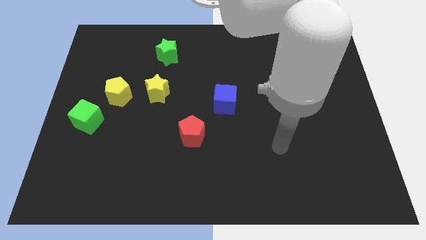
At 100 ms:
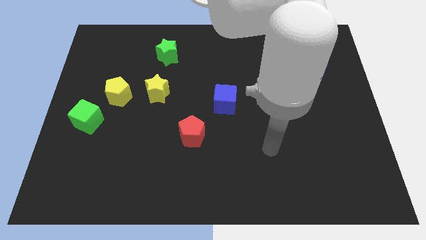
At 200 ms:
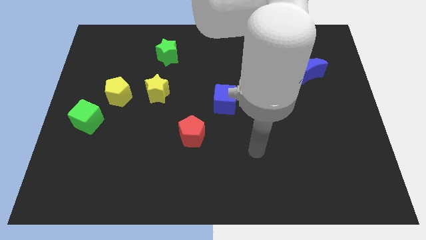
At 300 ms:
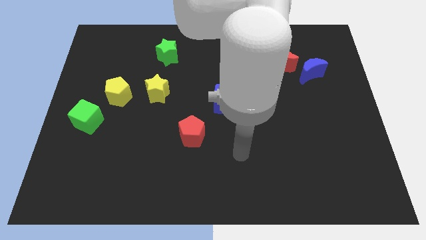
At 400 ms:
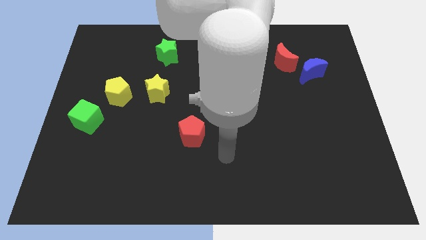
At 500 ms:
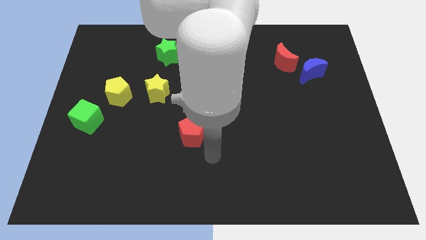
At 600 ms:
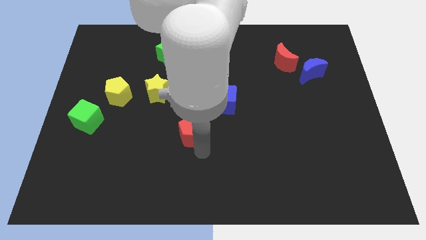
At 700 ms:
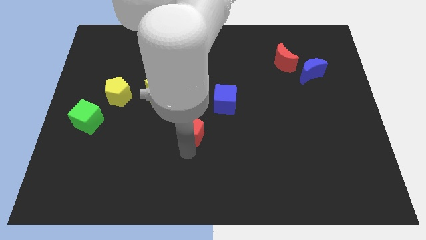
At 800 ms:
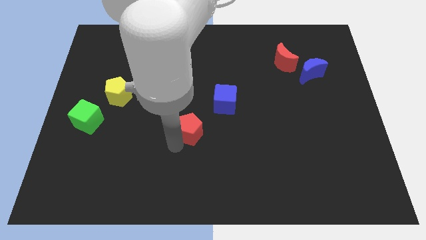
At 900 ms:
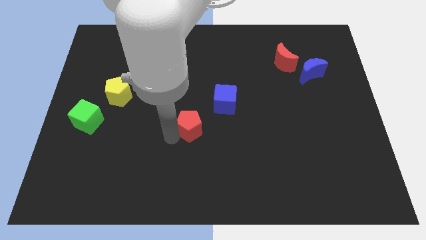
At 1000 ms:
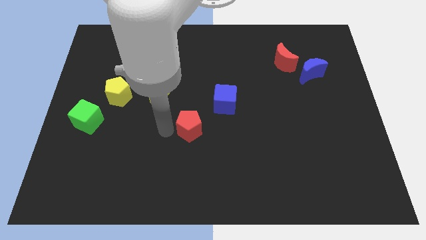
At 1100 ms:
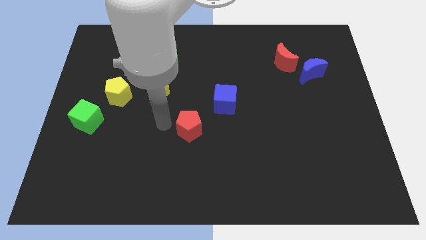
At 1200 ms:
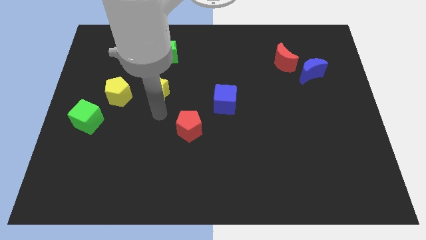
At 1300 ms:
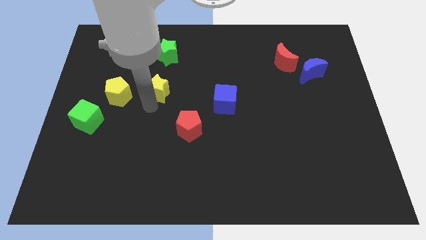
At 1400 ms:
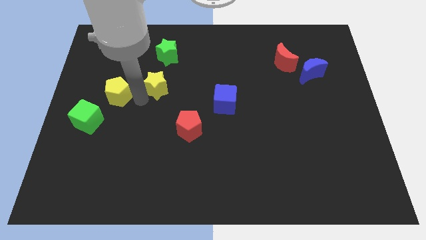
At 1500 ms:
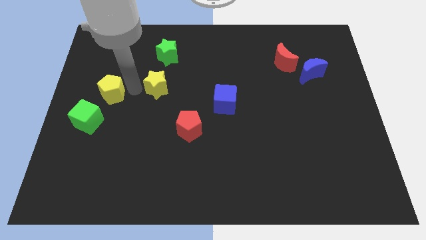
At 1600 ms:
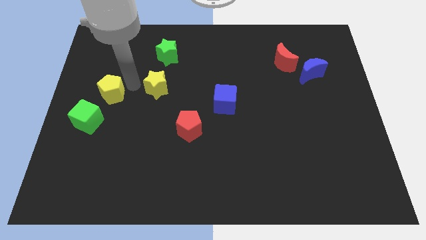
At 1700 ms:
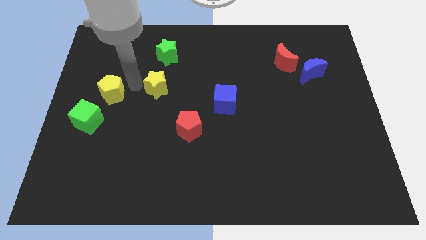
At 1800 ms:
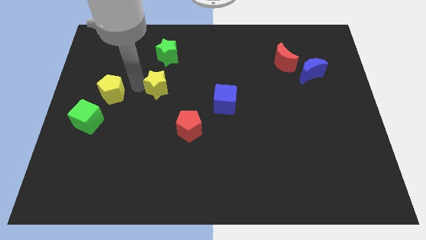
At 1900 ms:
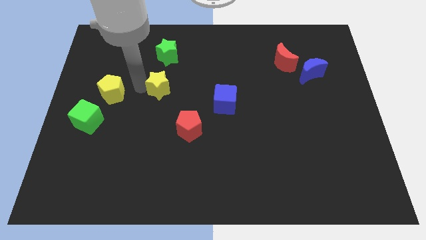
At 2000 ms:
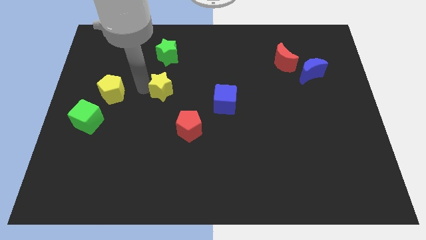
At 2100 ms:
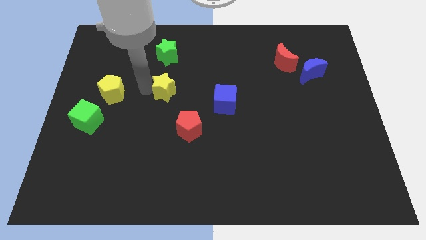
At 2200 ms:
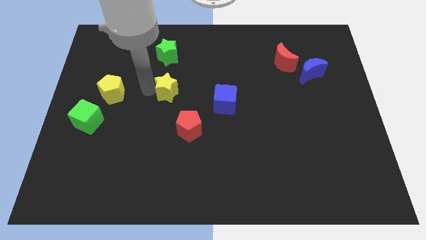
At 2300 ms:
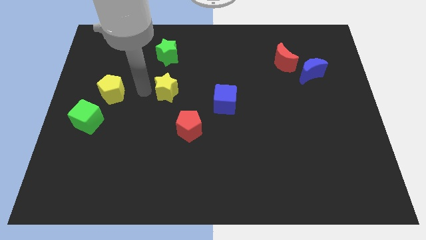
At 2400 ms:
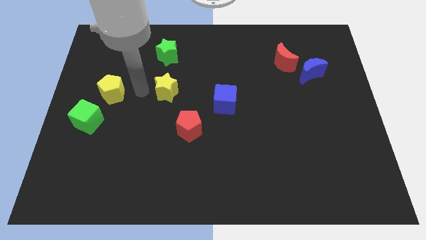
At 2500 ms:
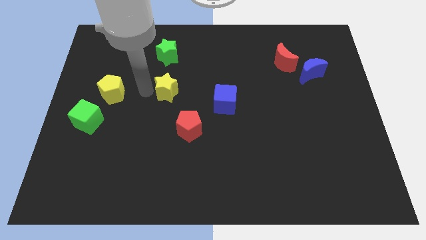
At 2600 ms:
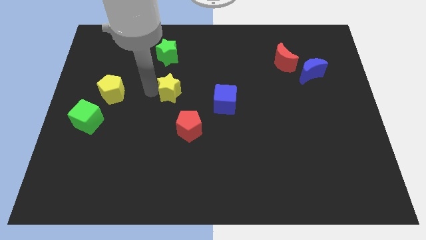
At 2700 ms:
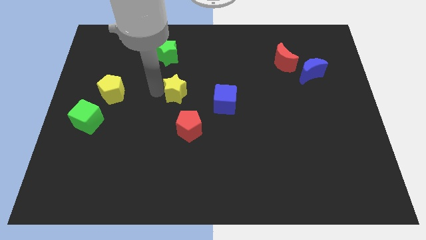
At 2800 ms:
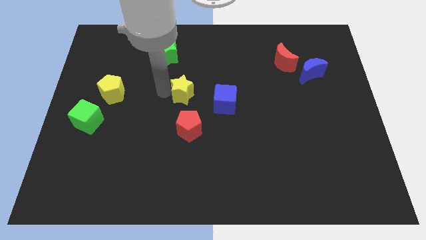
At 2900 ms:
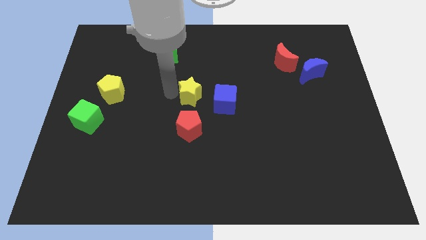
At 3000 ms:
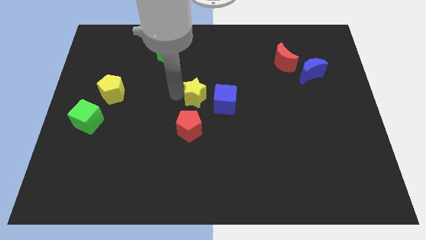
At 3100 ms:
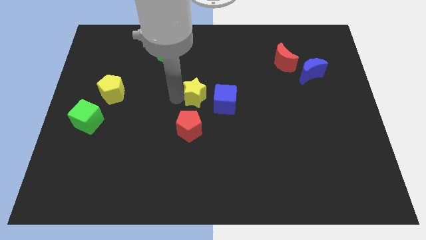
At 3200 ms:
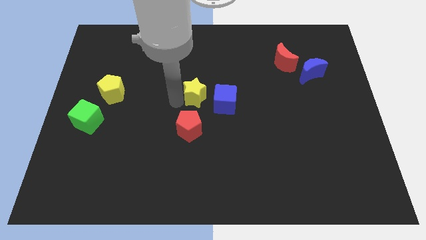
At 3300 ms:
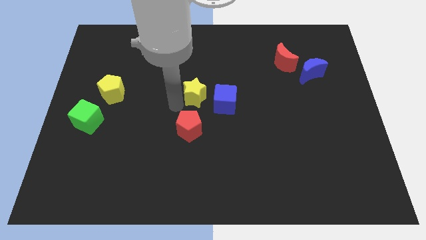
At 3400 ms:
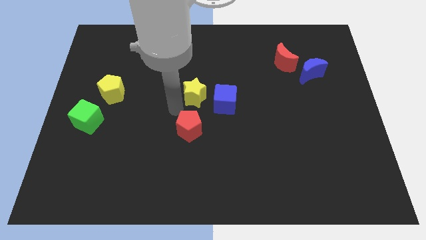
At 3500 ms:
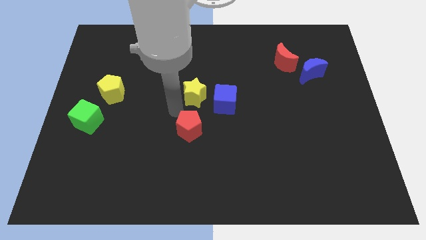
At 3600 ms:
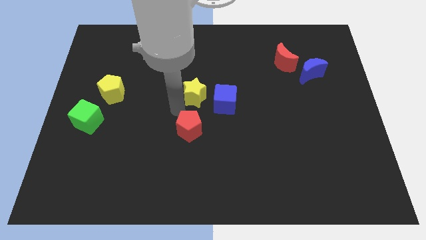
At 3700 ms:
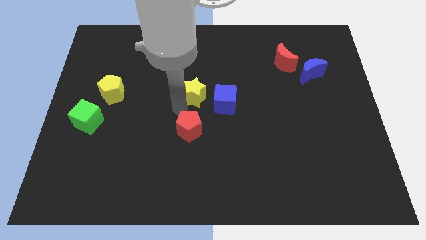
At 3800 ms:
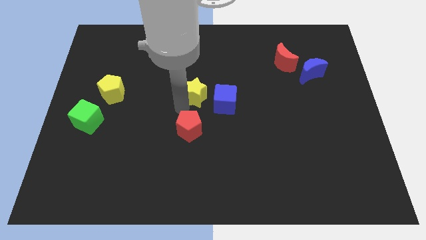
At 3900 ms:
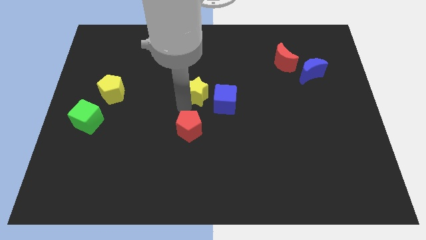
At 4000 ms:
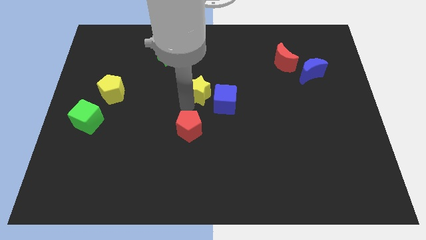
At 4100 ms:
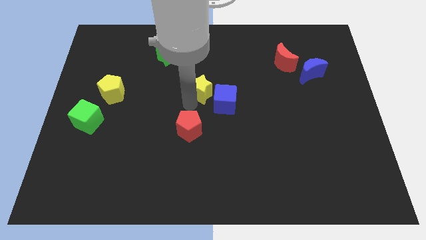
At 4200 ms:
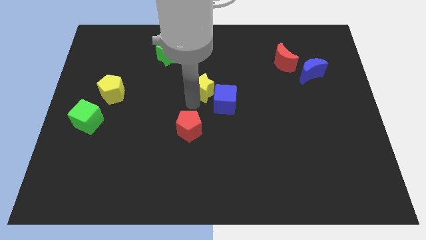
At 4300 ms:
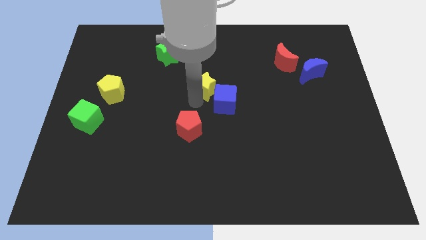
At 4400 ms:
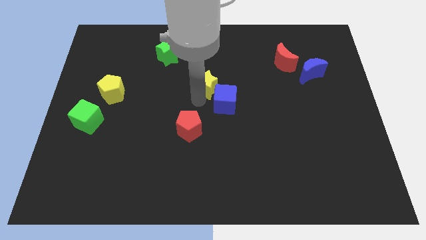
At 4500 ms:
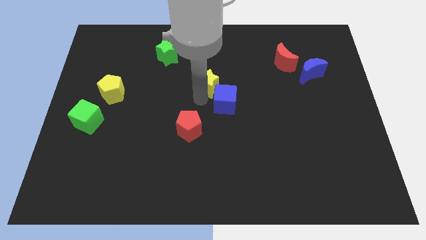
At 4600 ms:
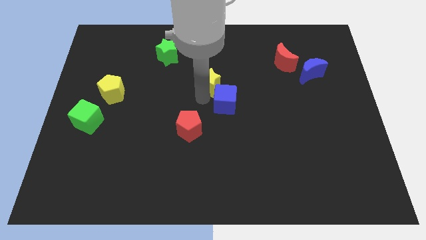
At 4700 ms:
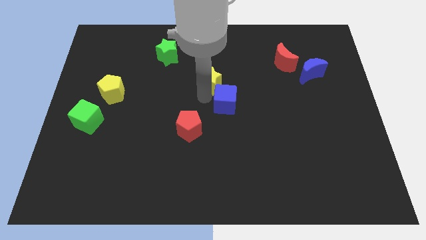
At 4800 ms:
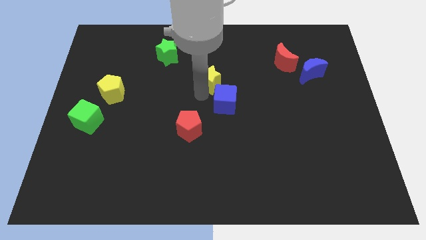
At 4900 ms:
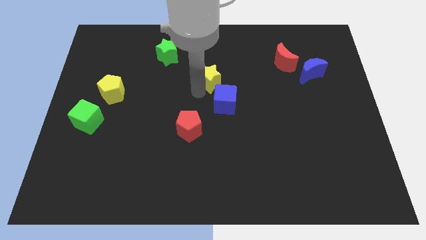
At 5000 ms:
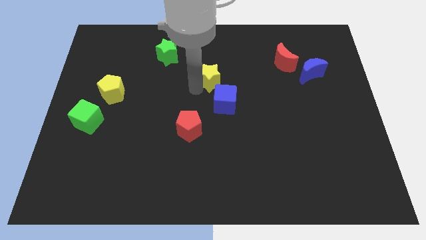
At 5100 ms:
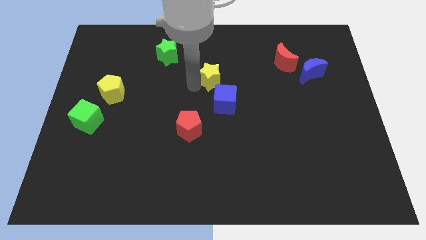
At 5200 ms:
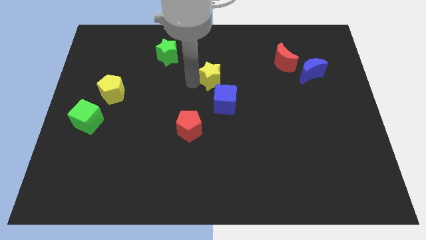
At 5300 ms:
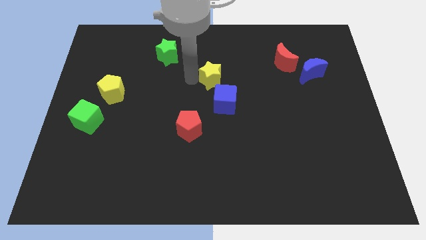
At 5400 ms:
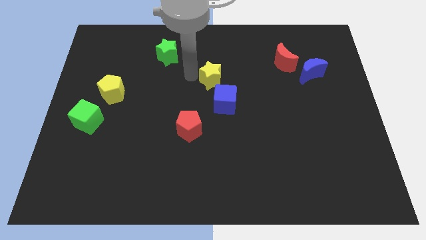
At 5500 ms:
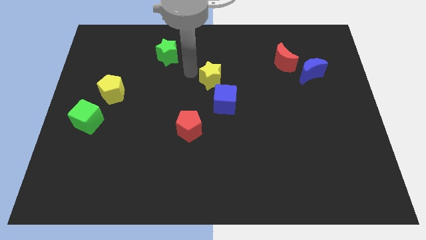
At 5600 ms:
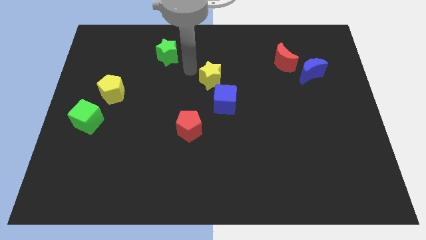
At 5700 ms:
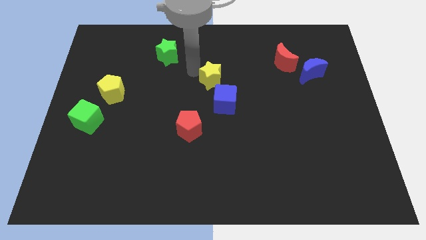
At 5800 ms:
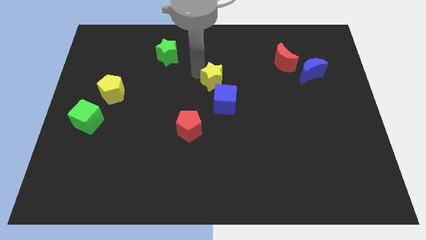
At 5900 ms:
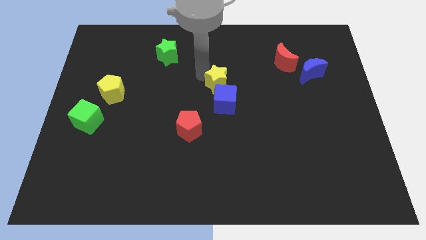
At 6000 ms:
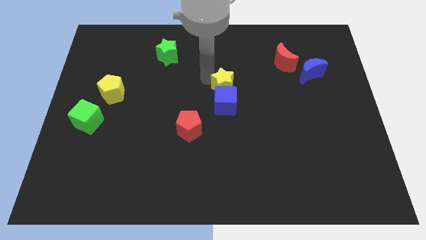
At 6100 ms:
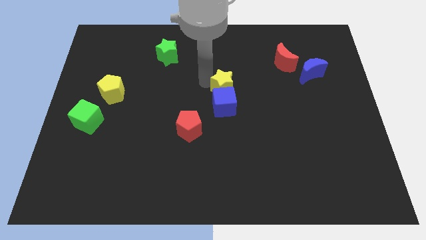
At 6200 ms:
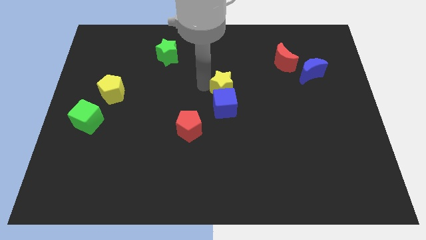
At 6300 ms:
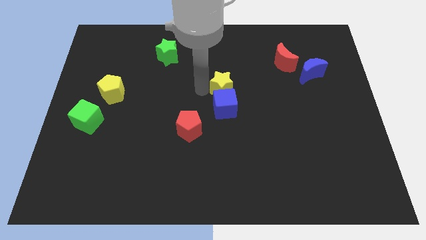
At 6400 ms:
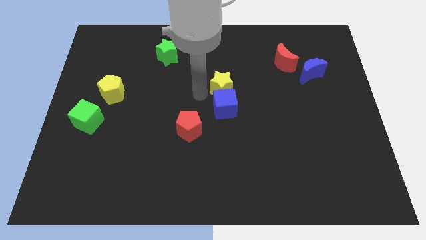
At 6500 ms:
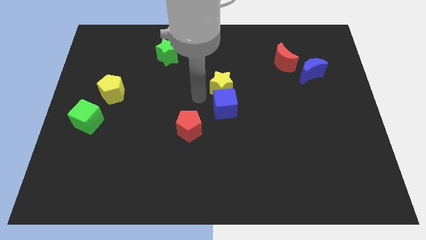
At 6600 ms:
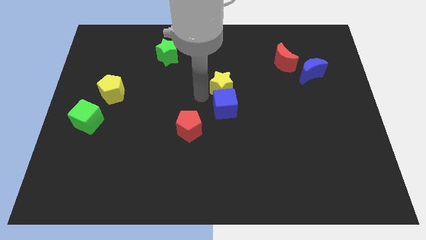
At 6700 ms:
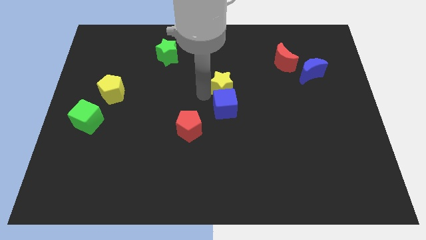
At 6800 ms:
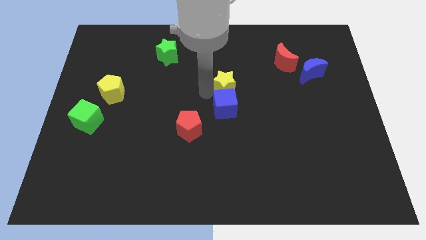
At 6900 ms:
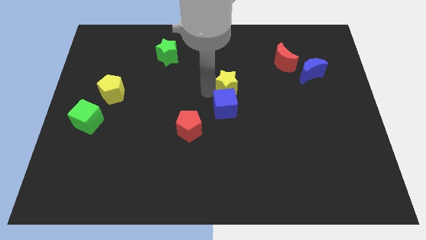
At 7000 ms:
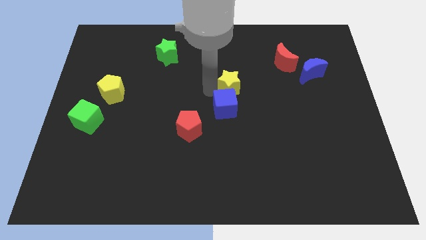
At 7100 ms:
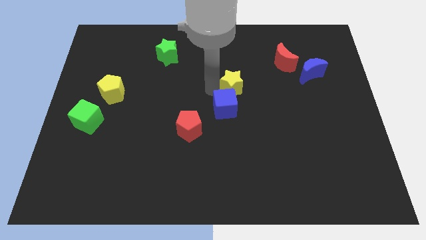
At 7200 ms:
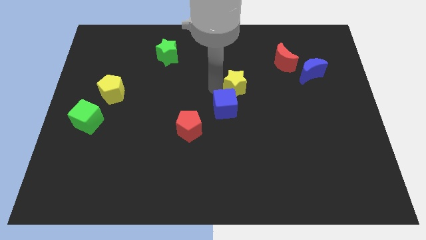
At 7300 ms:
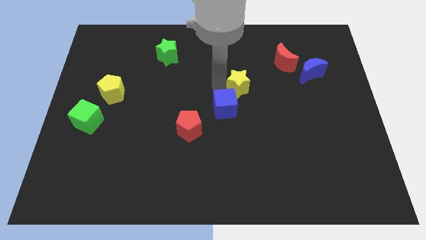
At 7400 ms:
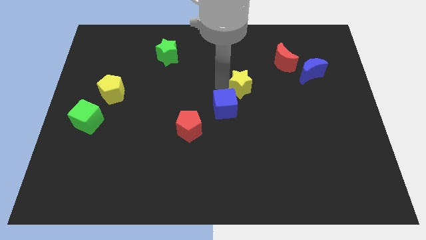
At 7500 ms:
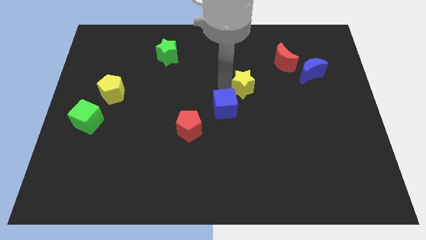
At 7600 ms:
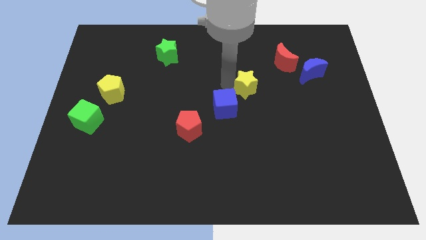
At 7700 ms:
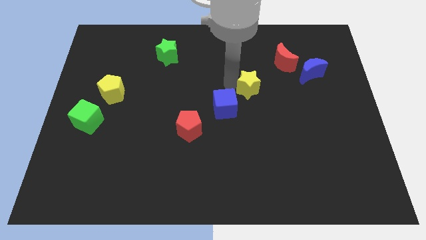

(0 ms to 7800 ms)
slide the yellow star to the bottom left of the red moon
